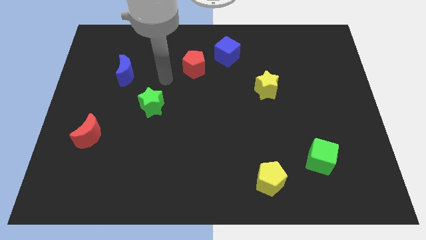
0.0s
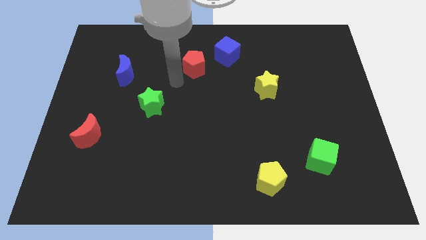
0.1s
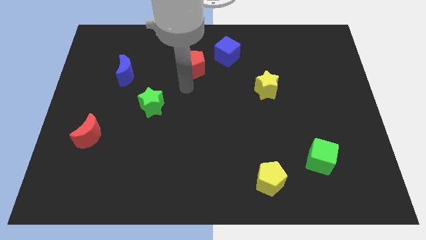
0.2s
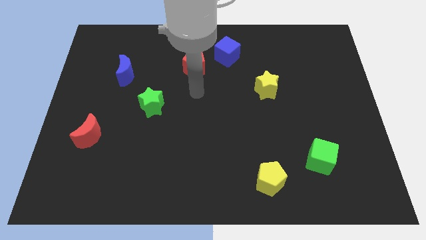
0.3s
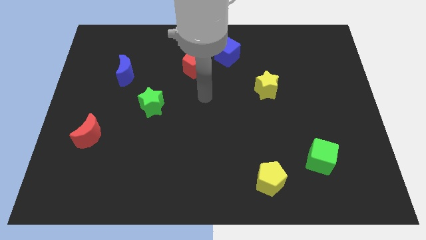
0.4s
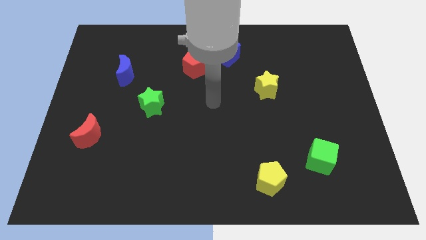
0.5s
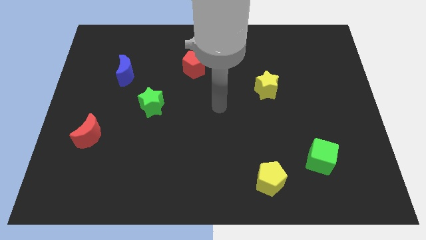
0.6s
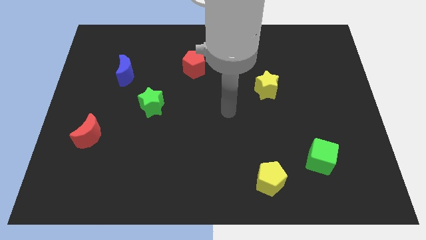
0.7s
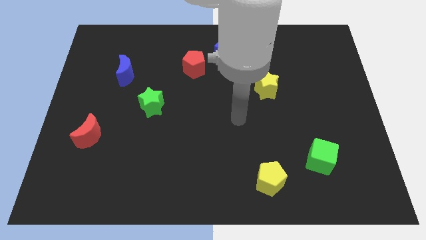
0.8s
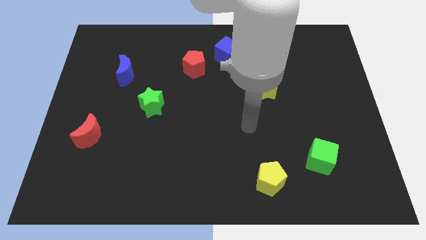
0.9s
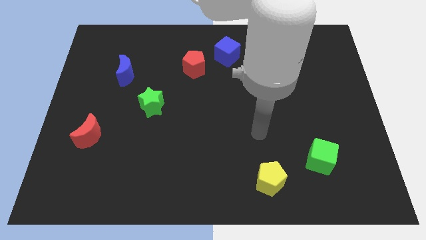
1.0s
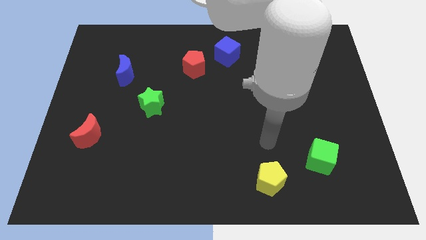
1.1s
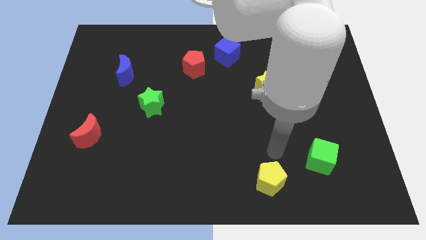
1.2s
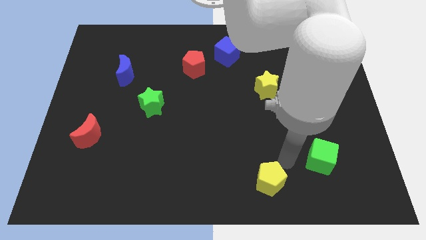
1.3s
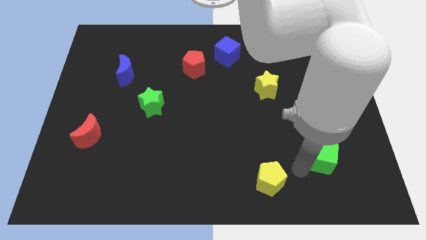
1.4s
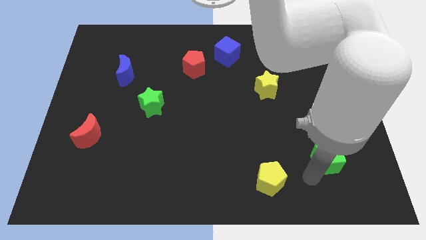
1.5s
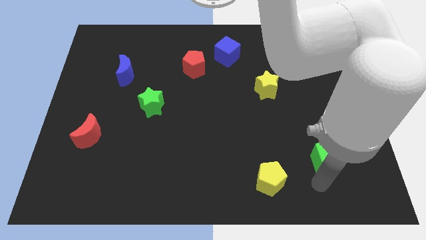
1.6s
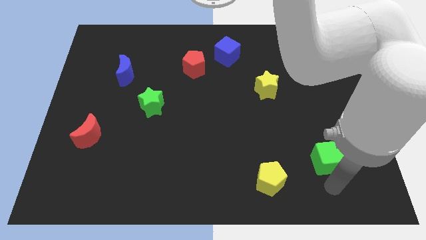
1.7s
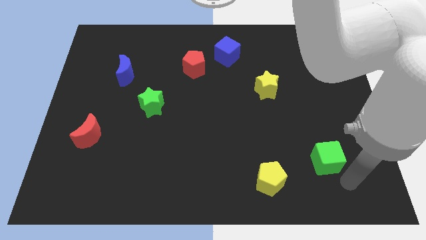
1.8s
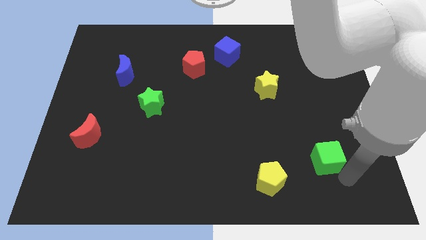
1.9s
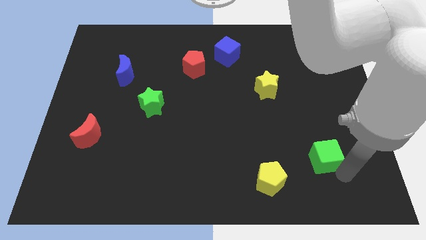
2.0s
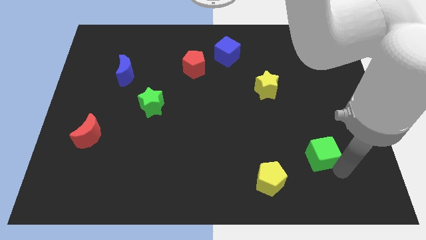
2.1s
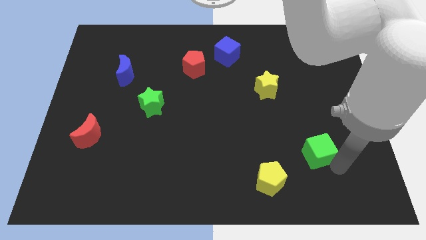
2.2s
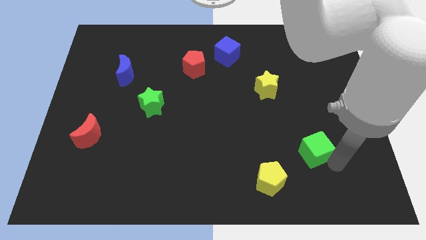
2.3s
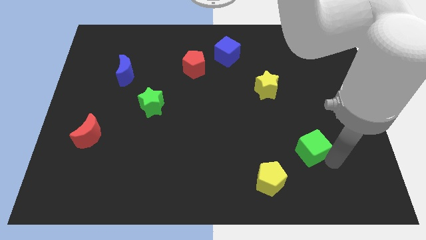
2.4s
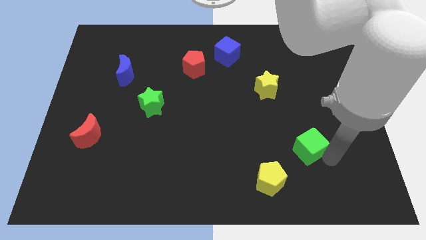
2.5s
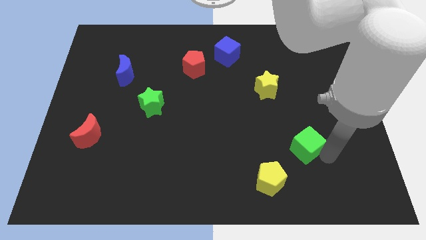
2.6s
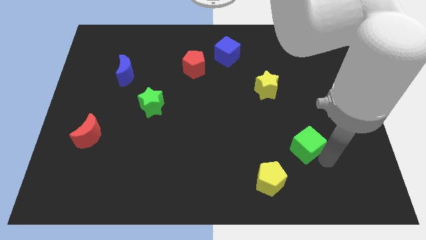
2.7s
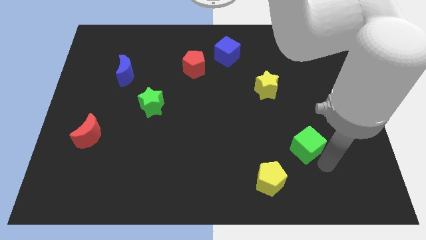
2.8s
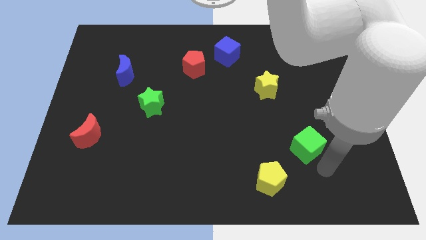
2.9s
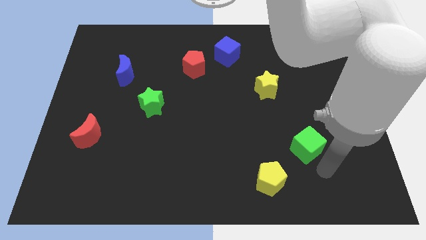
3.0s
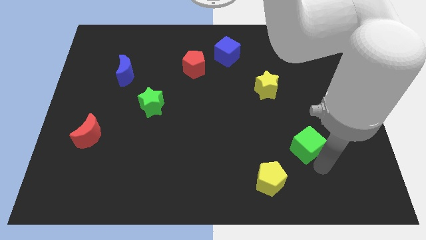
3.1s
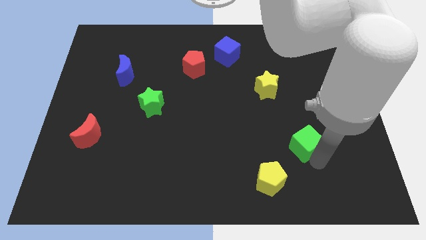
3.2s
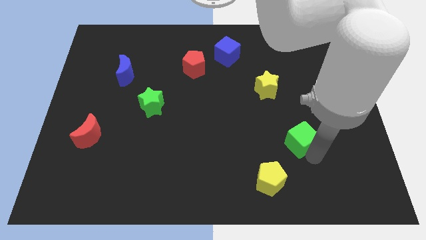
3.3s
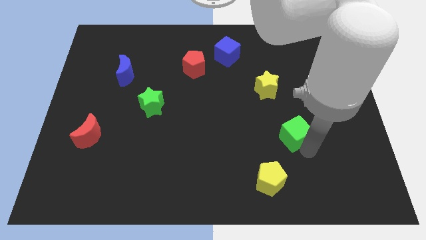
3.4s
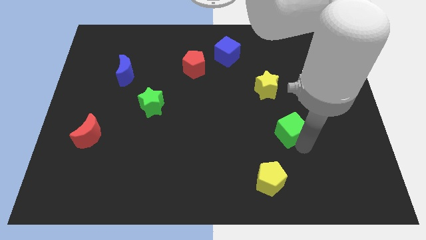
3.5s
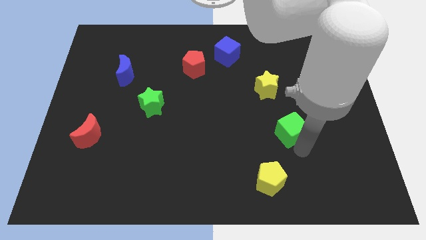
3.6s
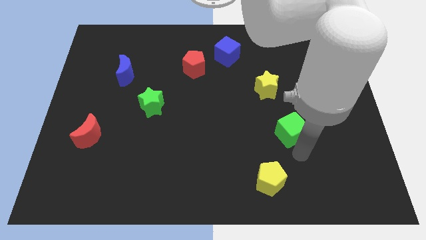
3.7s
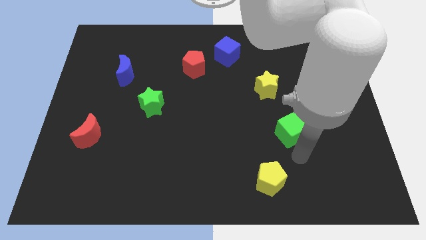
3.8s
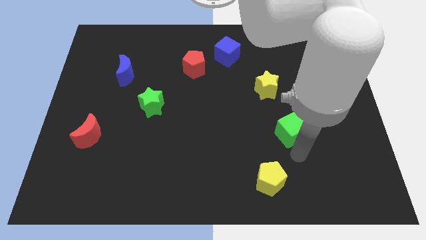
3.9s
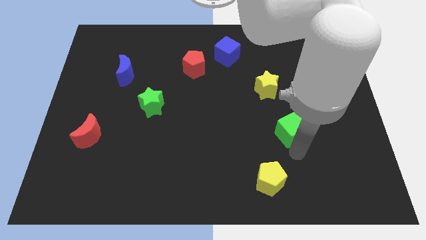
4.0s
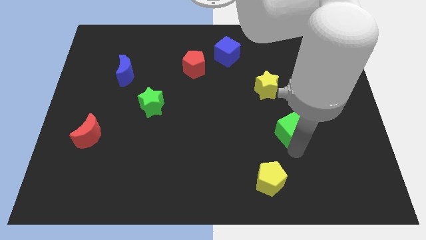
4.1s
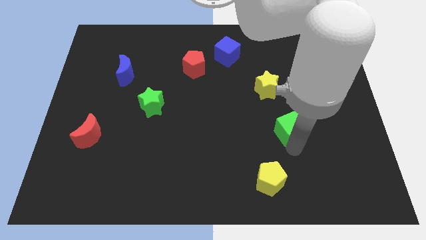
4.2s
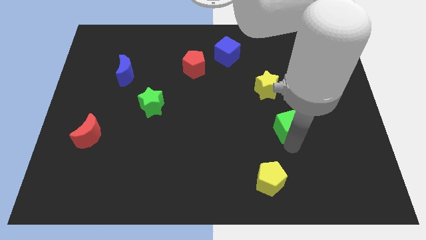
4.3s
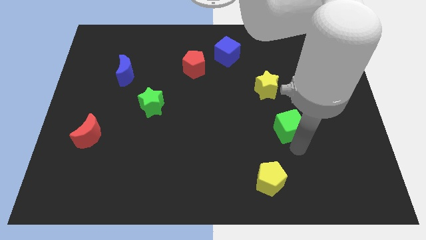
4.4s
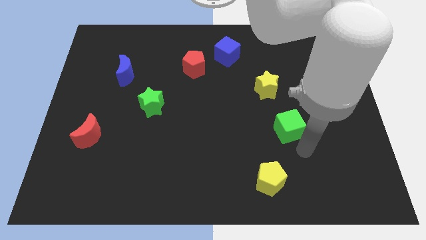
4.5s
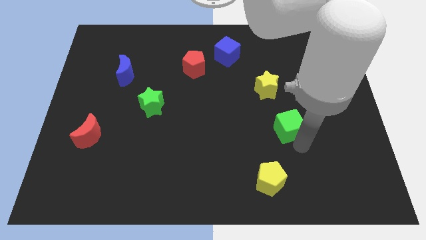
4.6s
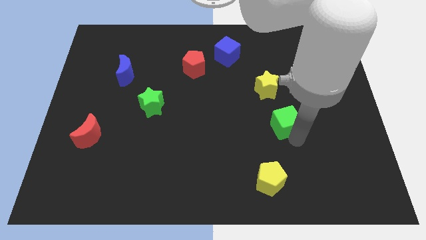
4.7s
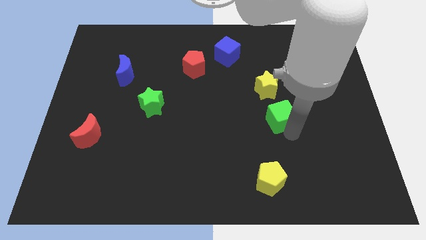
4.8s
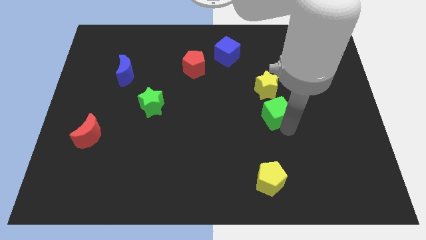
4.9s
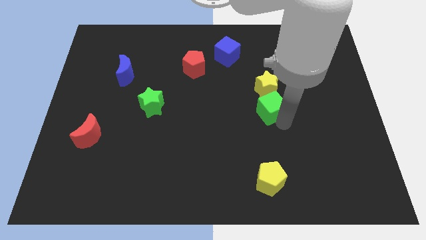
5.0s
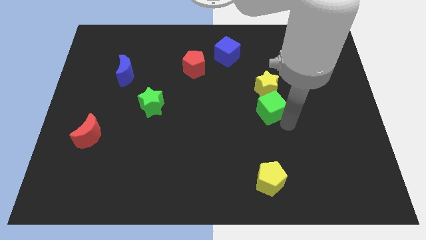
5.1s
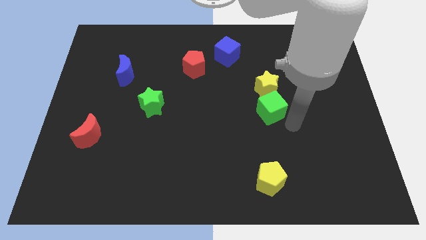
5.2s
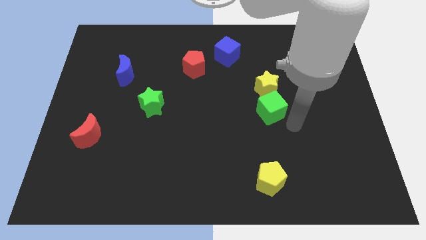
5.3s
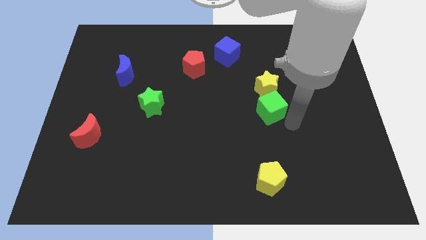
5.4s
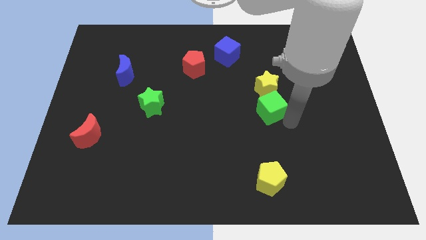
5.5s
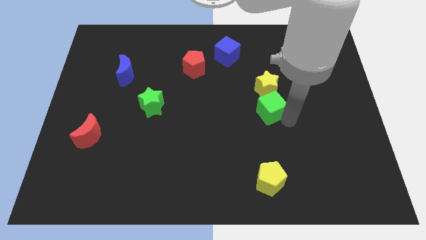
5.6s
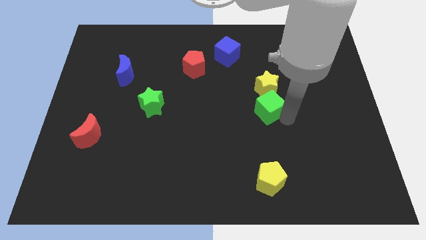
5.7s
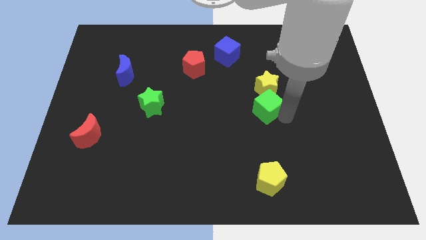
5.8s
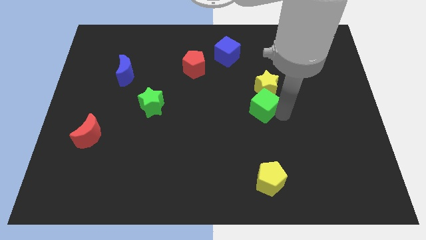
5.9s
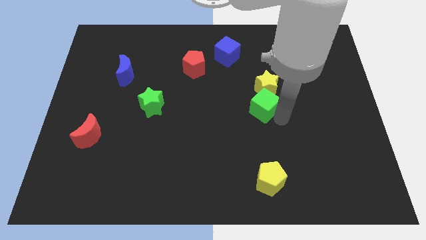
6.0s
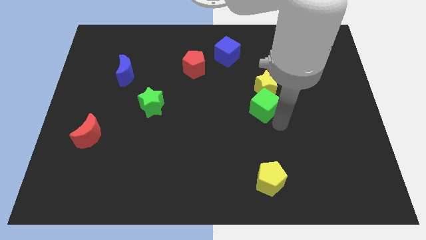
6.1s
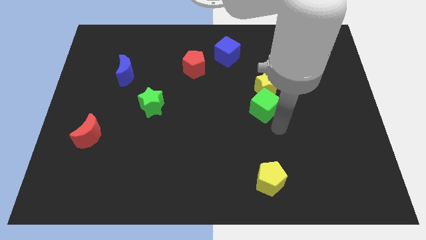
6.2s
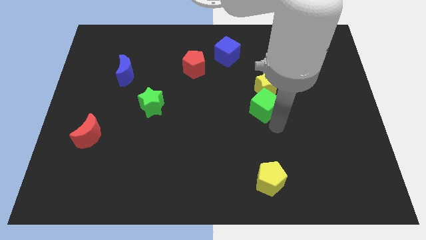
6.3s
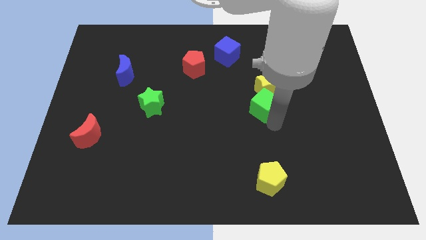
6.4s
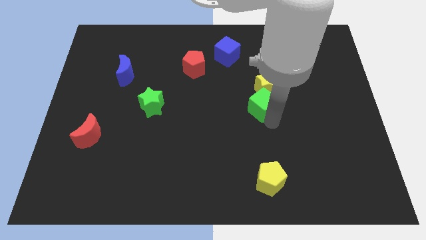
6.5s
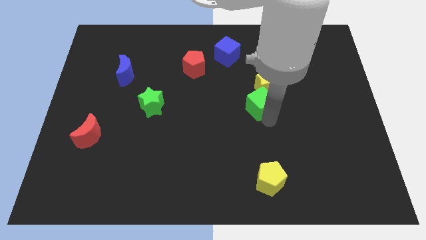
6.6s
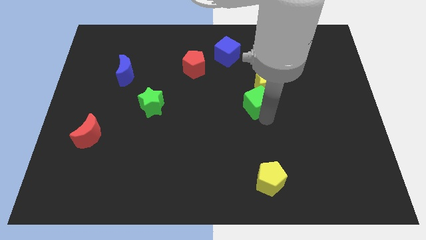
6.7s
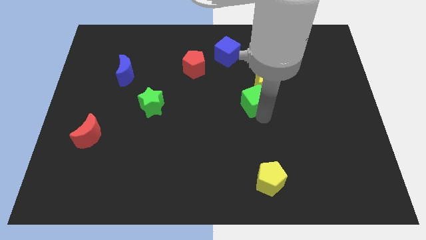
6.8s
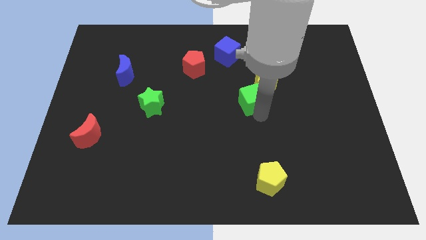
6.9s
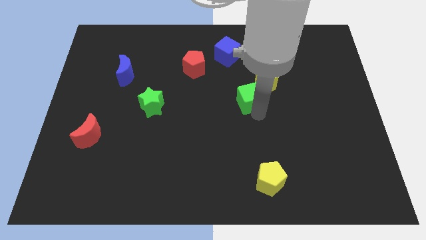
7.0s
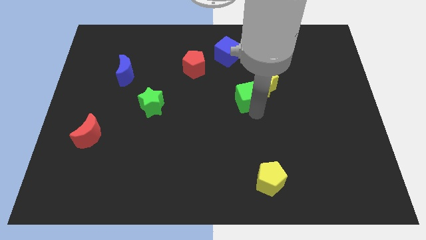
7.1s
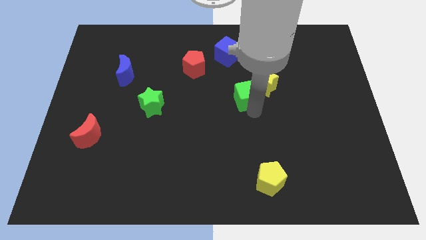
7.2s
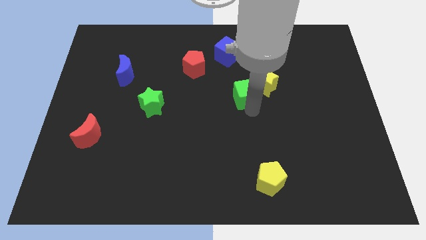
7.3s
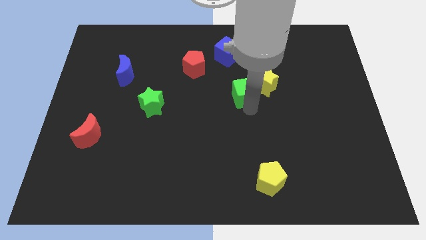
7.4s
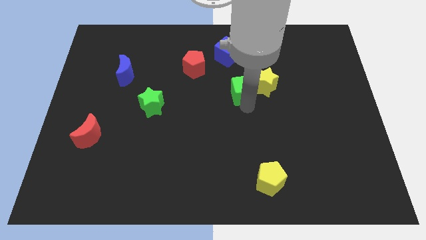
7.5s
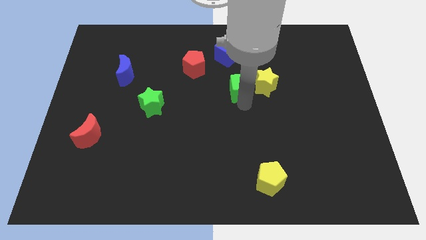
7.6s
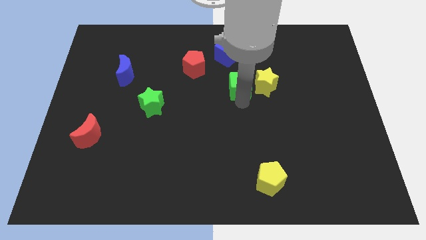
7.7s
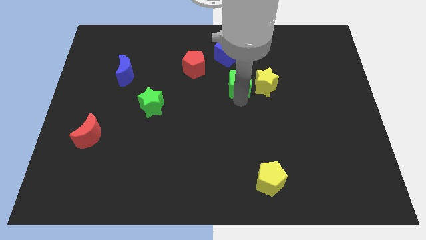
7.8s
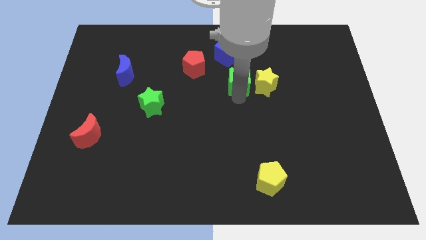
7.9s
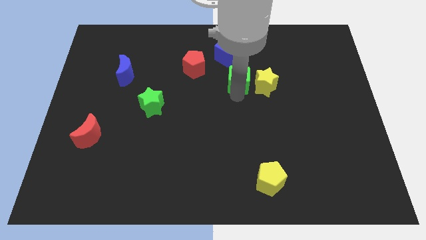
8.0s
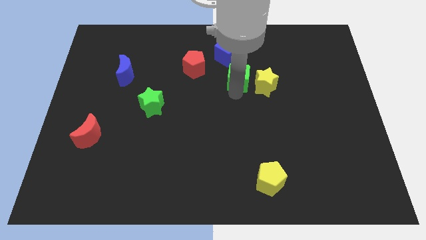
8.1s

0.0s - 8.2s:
slide the green cube to the bottom right side of the blue cube
